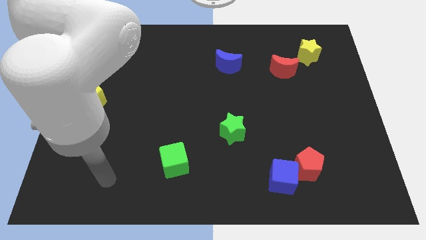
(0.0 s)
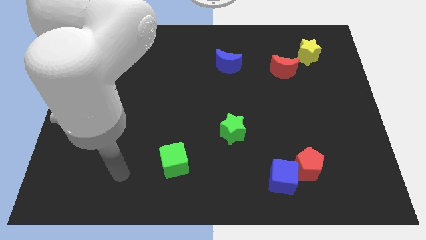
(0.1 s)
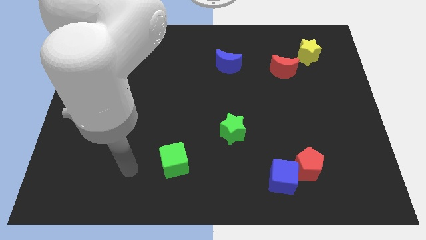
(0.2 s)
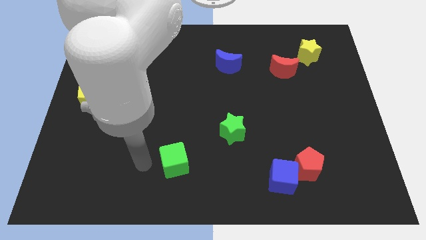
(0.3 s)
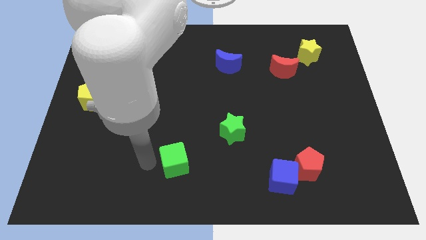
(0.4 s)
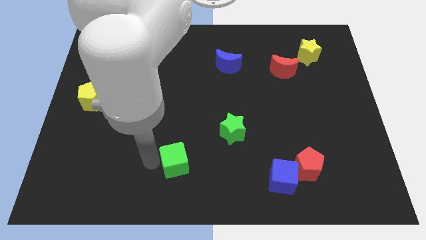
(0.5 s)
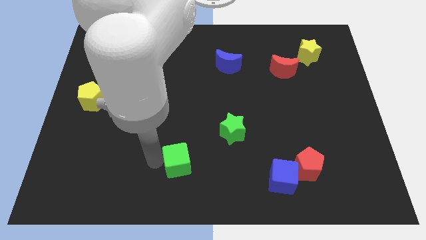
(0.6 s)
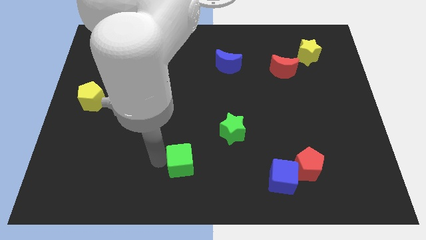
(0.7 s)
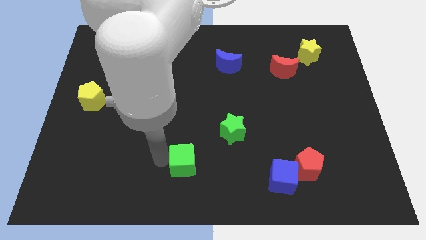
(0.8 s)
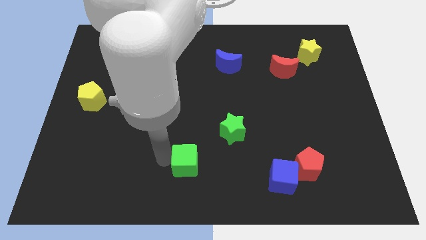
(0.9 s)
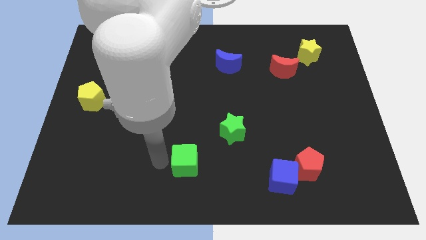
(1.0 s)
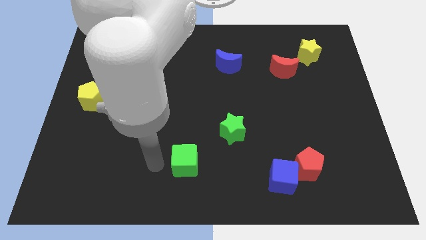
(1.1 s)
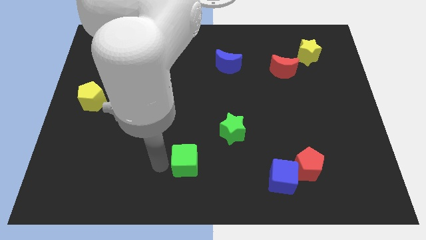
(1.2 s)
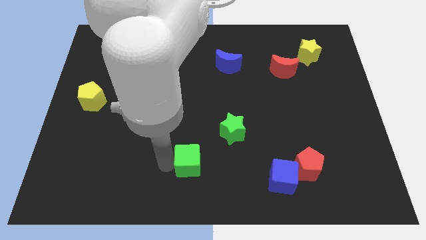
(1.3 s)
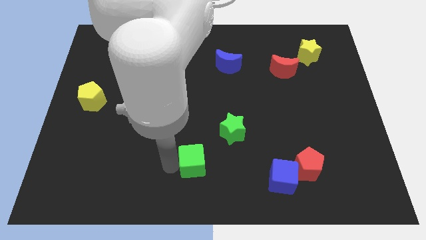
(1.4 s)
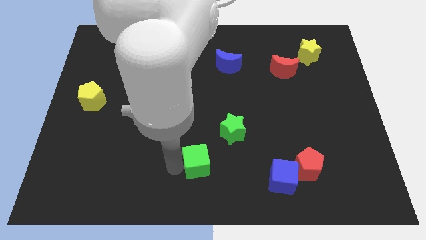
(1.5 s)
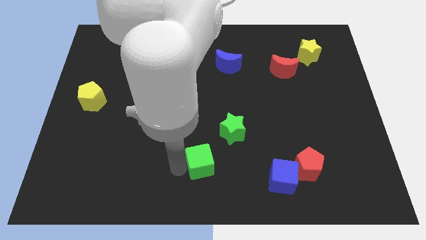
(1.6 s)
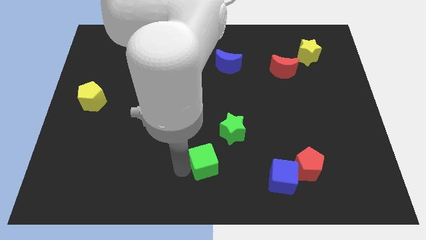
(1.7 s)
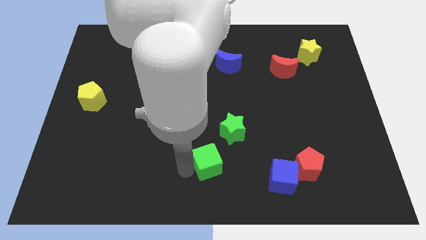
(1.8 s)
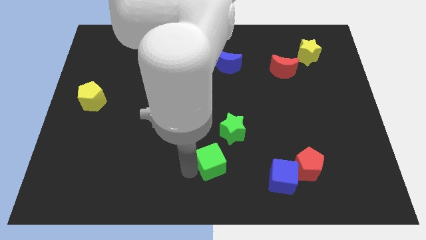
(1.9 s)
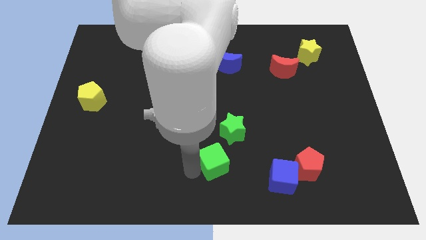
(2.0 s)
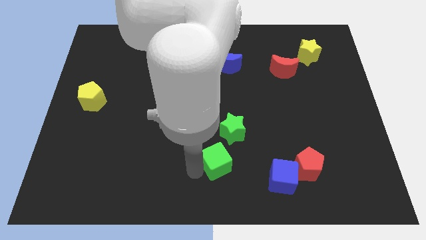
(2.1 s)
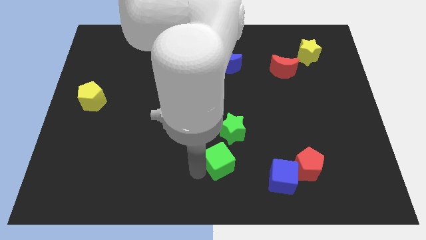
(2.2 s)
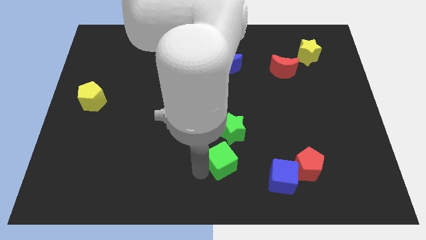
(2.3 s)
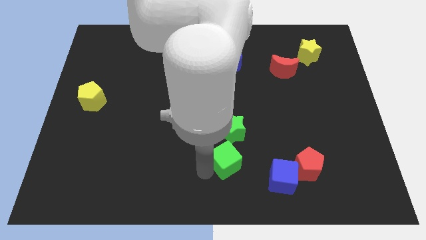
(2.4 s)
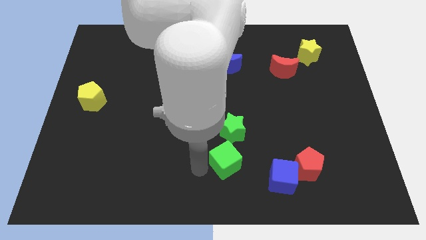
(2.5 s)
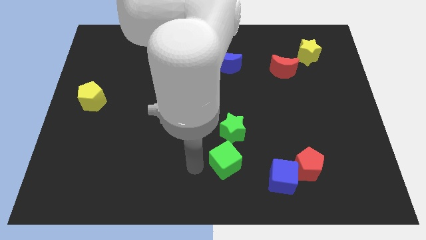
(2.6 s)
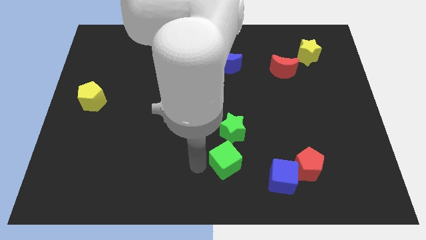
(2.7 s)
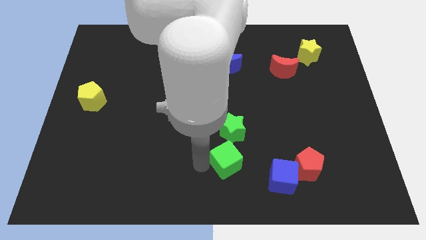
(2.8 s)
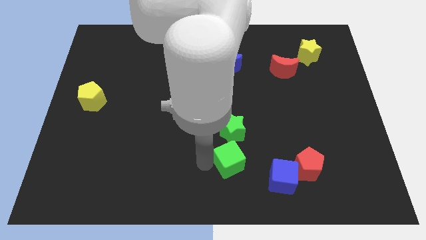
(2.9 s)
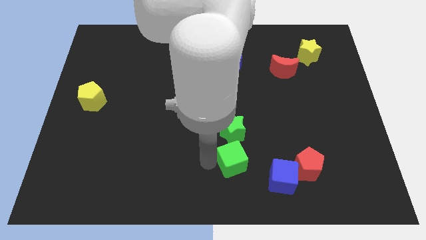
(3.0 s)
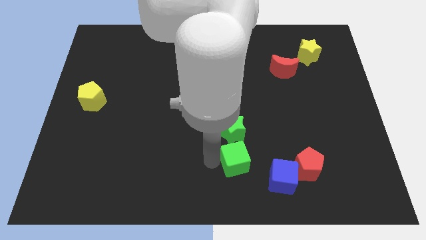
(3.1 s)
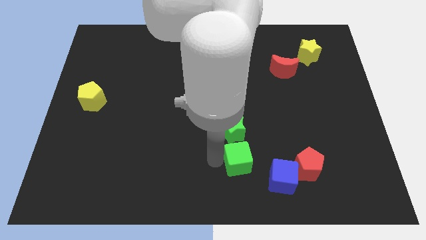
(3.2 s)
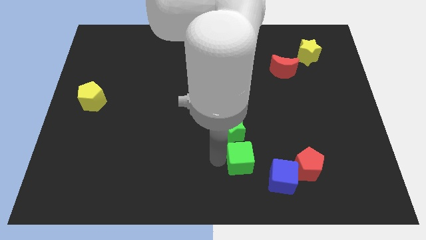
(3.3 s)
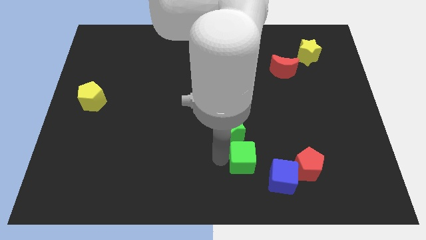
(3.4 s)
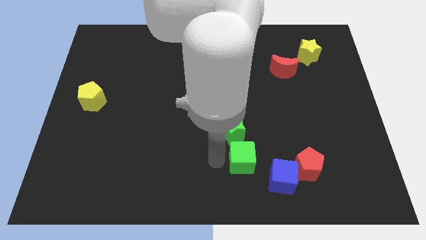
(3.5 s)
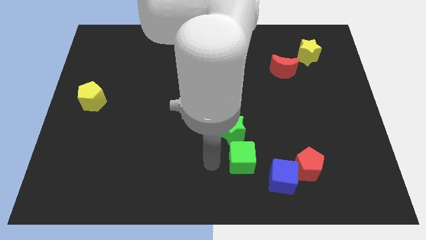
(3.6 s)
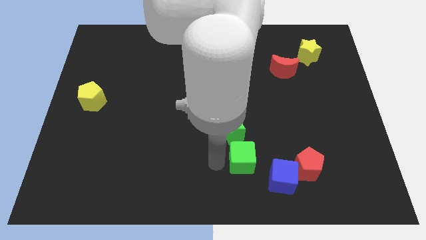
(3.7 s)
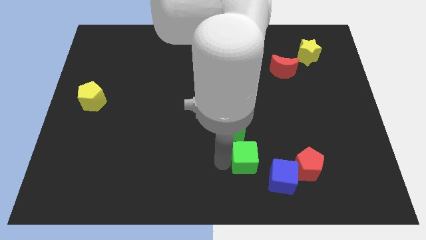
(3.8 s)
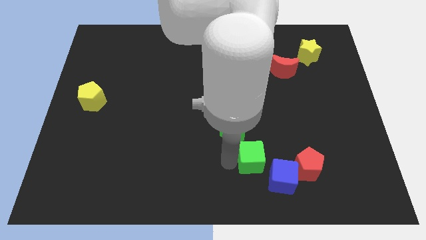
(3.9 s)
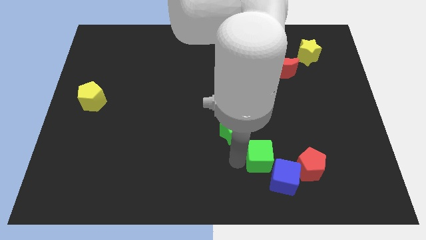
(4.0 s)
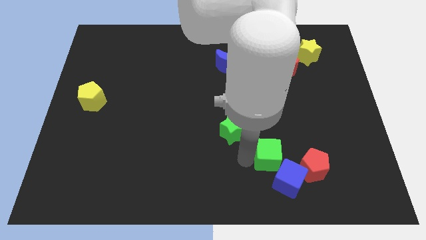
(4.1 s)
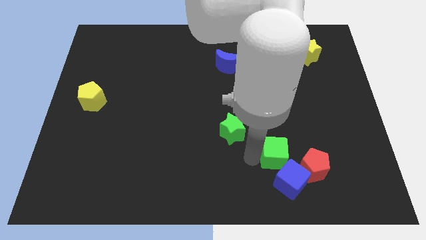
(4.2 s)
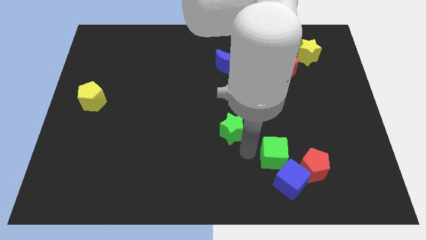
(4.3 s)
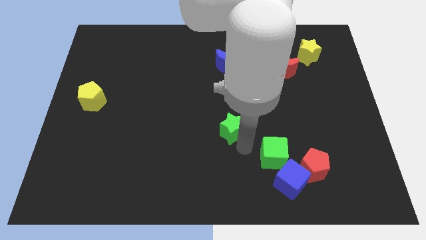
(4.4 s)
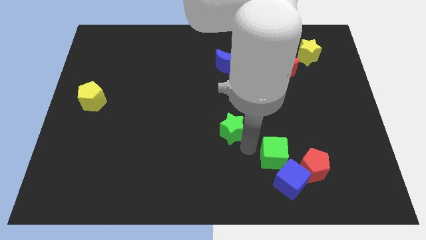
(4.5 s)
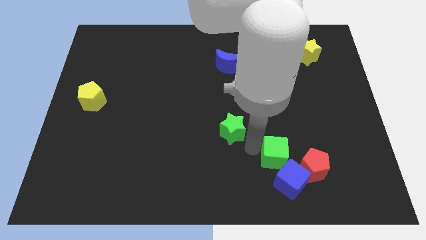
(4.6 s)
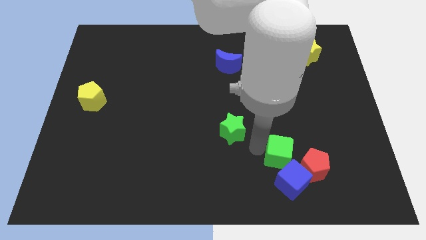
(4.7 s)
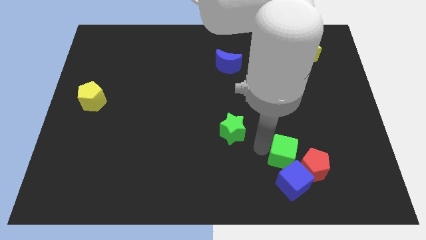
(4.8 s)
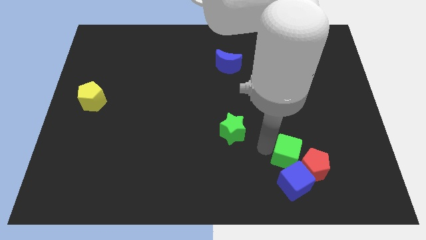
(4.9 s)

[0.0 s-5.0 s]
put the green cube to the red pentagon

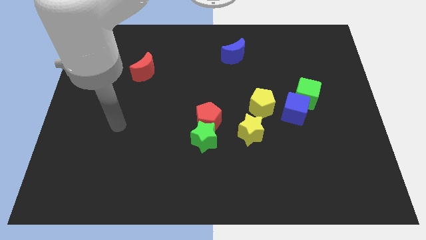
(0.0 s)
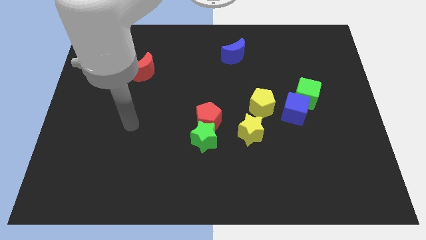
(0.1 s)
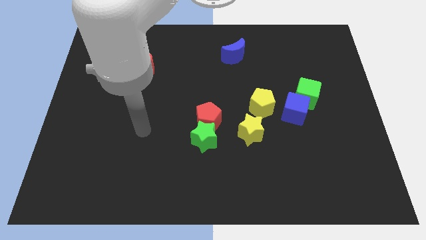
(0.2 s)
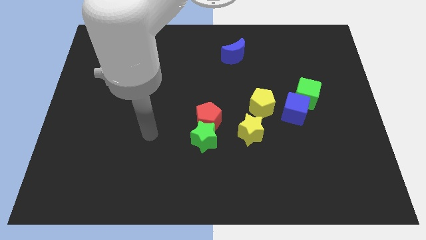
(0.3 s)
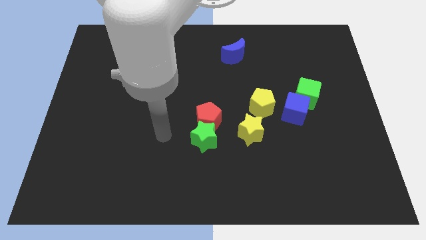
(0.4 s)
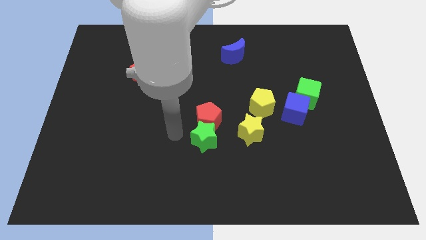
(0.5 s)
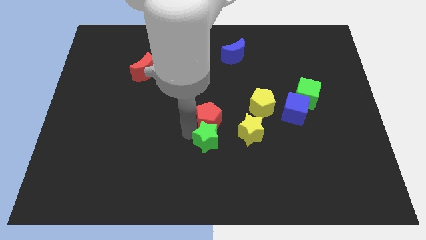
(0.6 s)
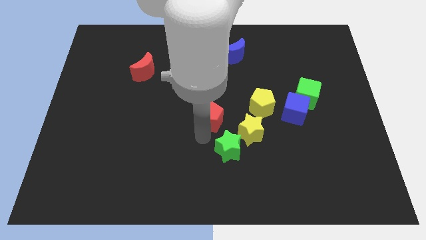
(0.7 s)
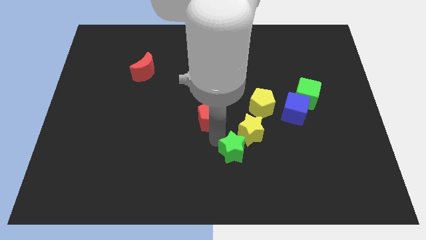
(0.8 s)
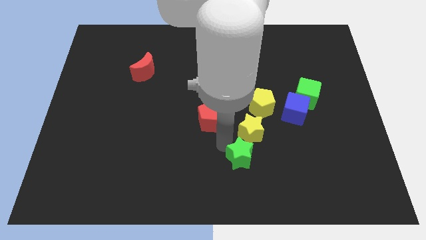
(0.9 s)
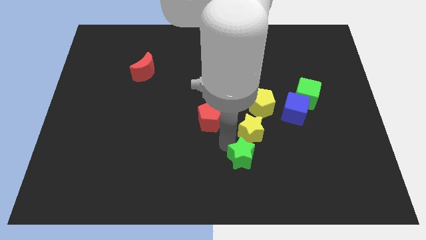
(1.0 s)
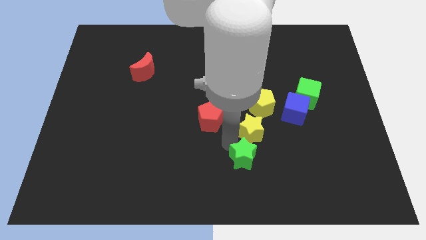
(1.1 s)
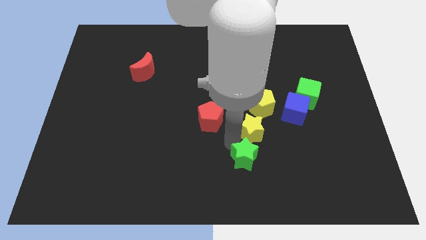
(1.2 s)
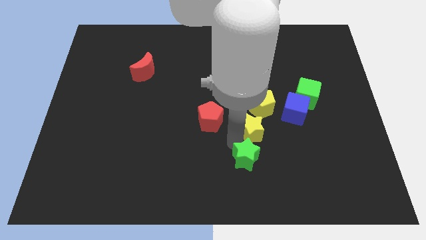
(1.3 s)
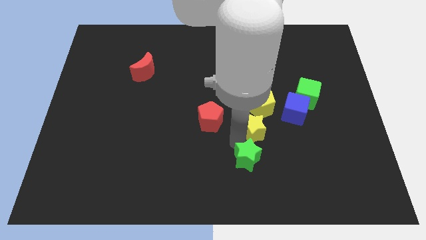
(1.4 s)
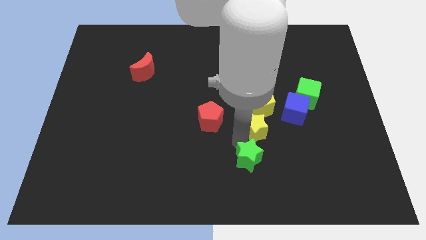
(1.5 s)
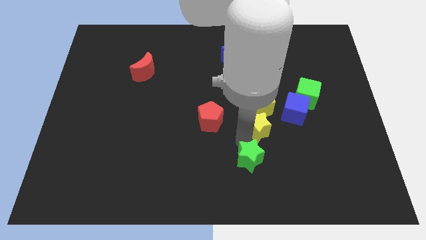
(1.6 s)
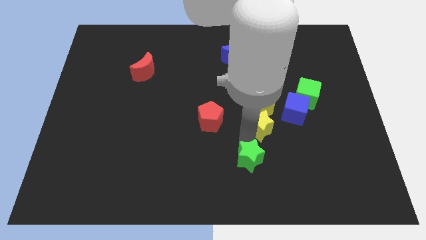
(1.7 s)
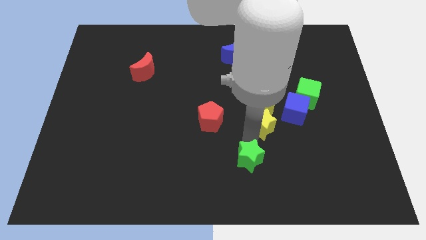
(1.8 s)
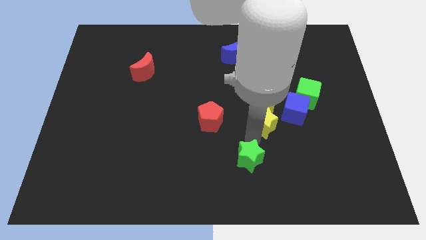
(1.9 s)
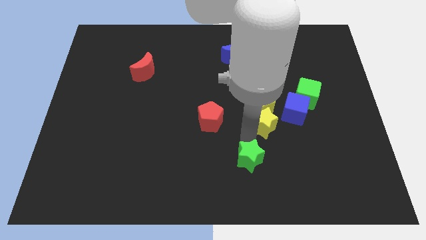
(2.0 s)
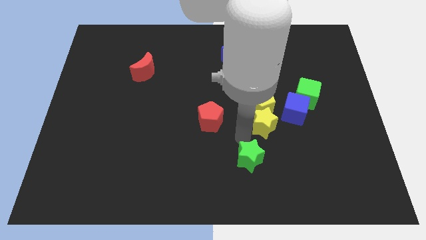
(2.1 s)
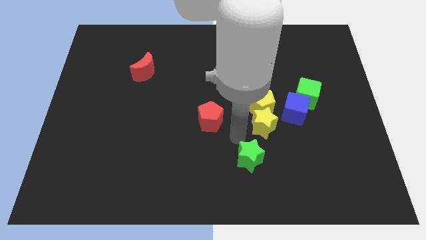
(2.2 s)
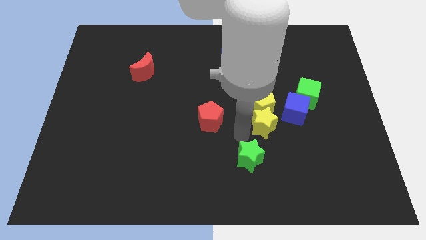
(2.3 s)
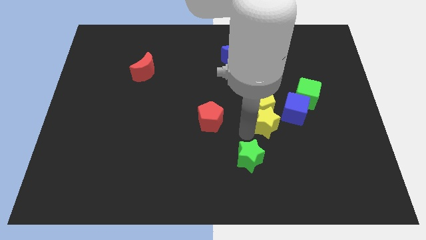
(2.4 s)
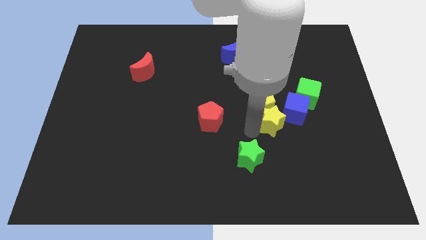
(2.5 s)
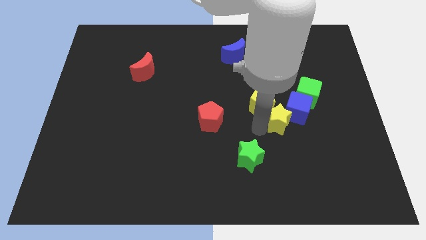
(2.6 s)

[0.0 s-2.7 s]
move the yellow star towards the blue cube
